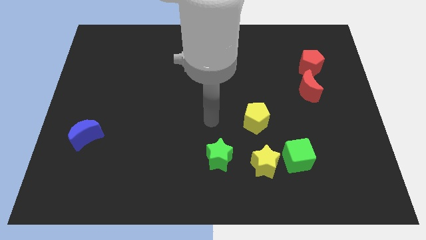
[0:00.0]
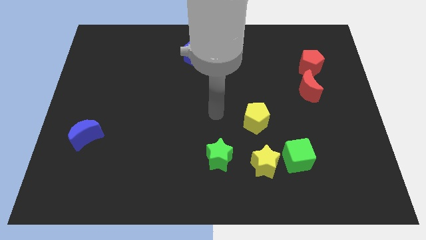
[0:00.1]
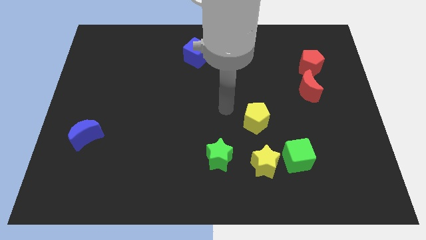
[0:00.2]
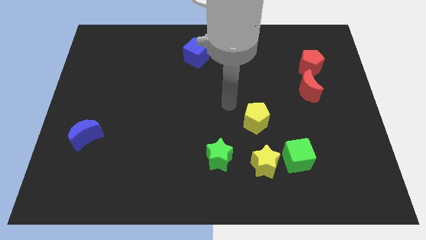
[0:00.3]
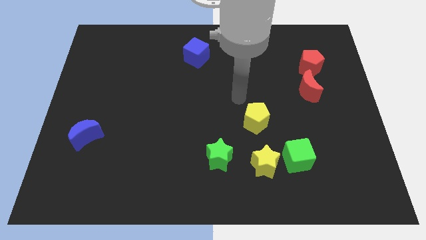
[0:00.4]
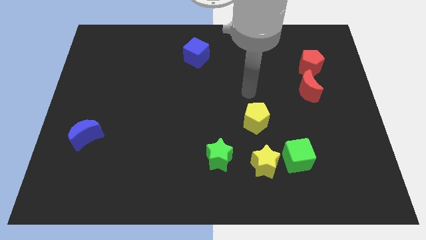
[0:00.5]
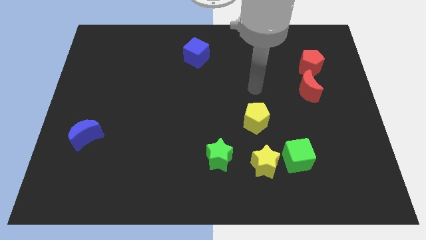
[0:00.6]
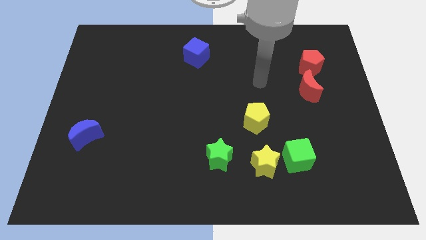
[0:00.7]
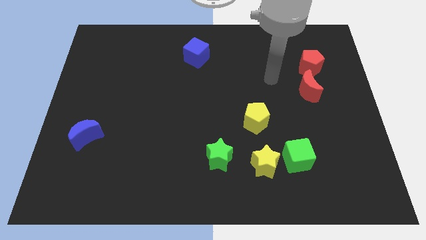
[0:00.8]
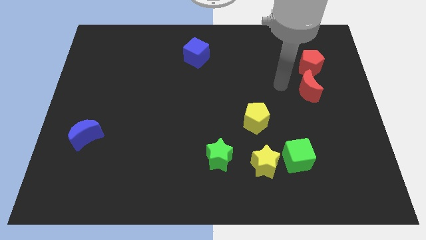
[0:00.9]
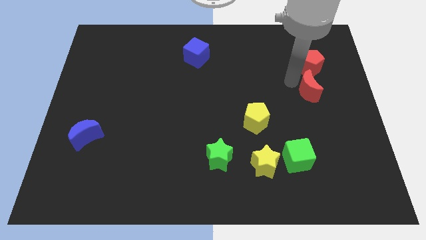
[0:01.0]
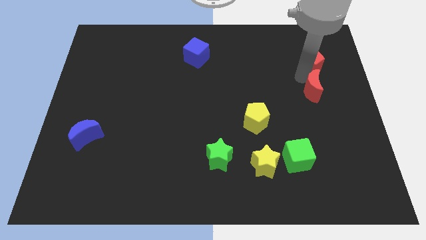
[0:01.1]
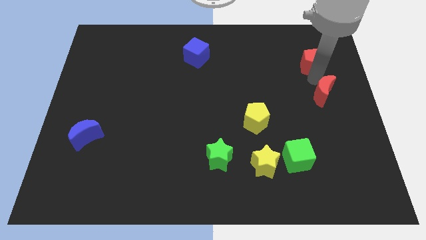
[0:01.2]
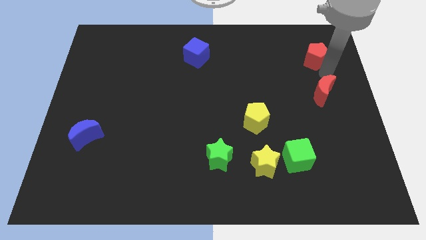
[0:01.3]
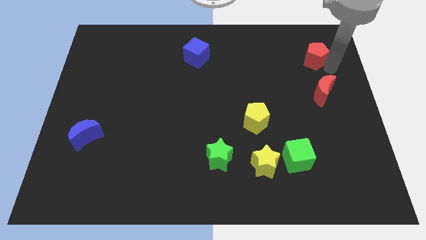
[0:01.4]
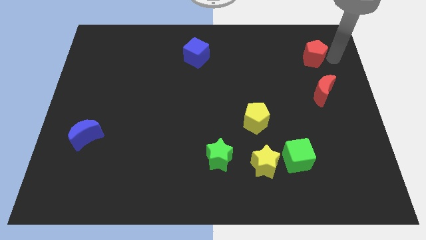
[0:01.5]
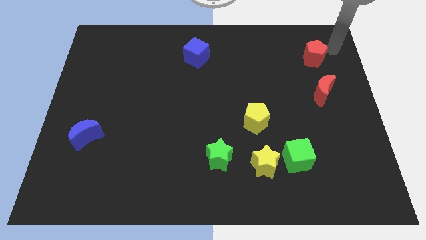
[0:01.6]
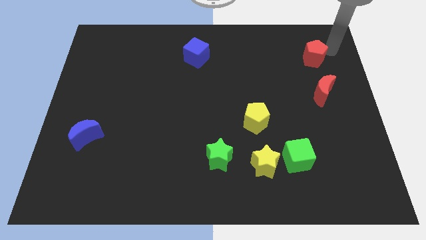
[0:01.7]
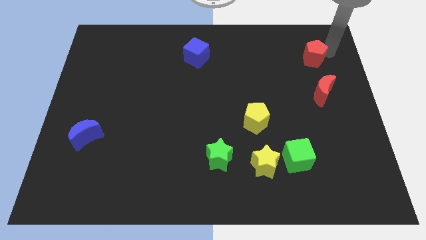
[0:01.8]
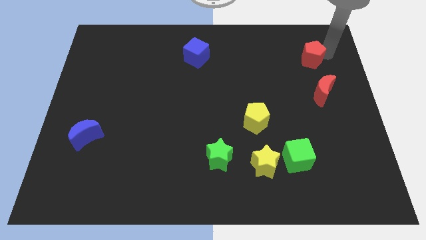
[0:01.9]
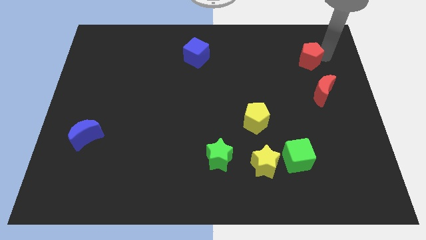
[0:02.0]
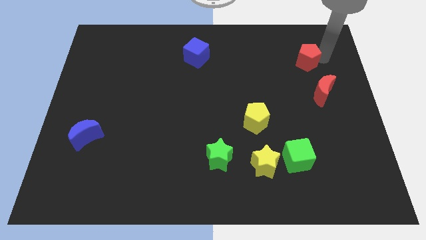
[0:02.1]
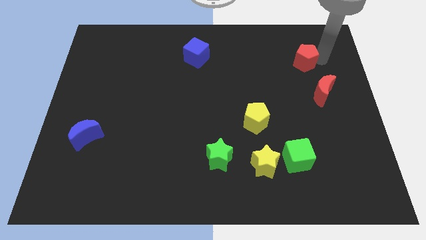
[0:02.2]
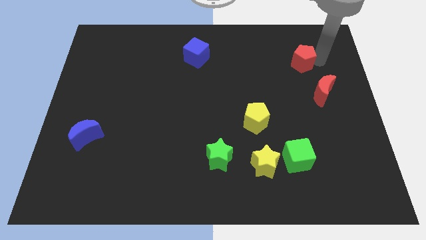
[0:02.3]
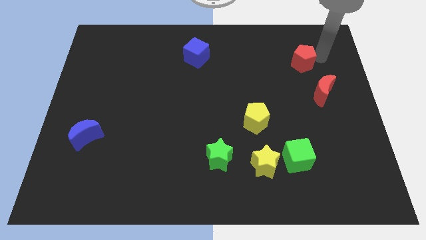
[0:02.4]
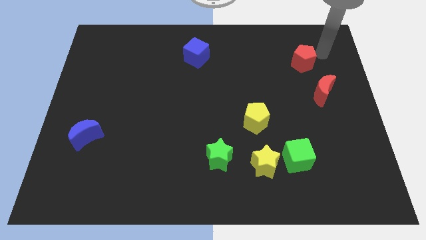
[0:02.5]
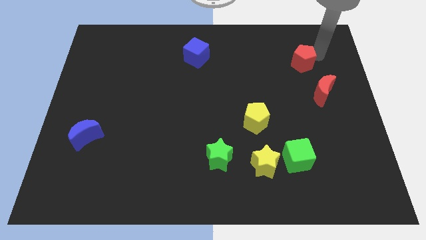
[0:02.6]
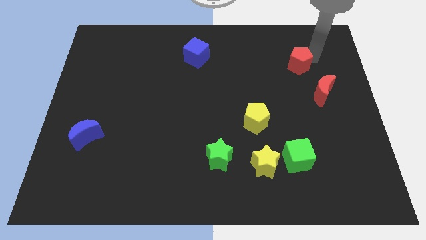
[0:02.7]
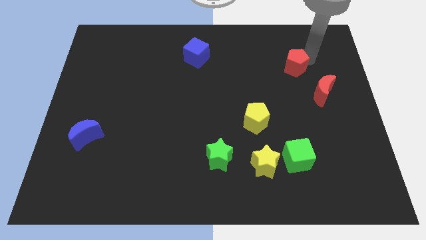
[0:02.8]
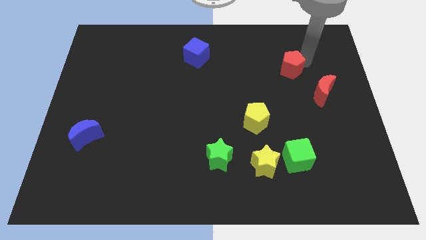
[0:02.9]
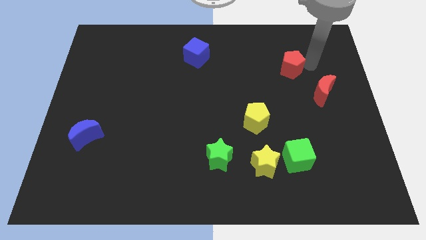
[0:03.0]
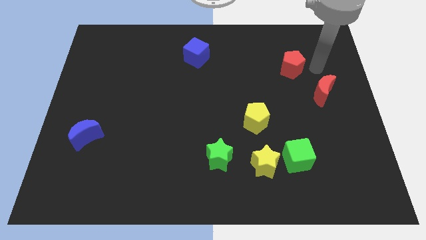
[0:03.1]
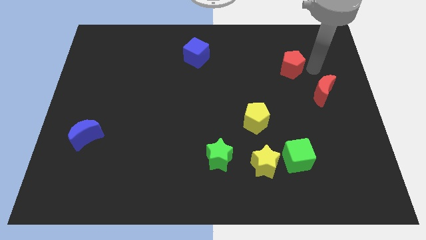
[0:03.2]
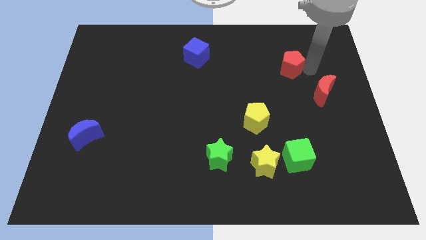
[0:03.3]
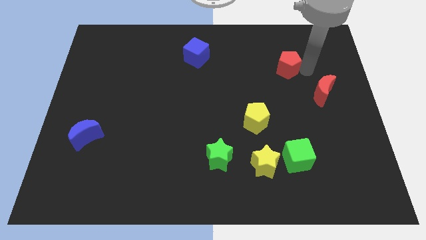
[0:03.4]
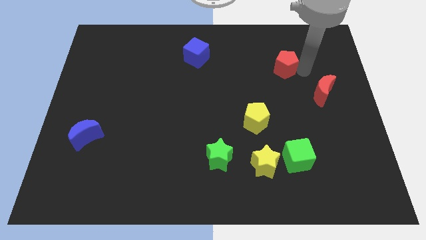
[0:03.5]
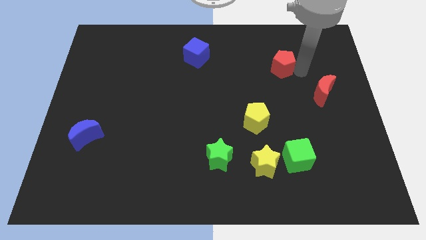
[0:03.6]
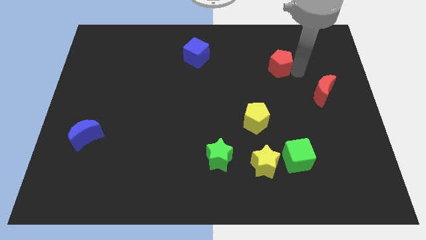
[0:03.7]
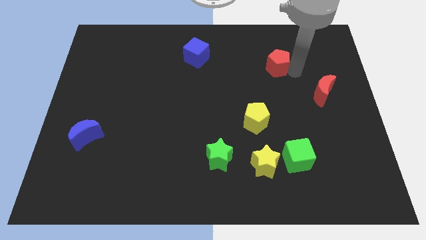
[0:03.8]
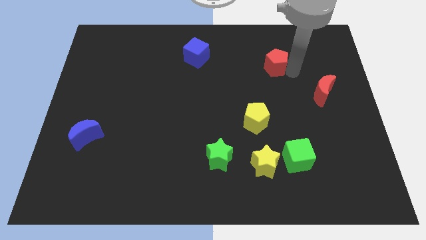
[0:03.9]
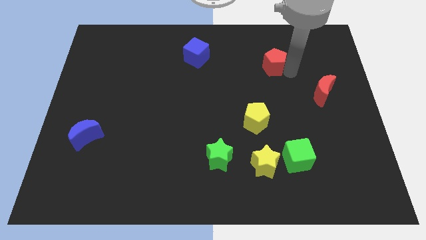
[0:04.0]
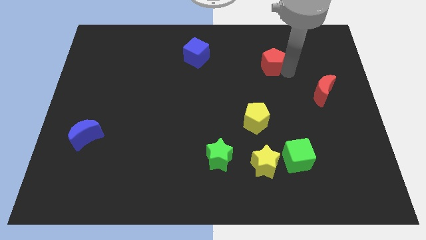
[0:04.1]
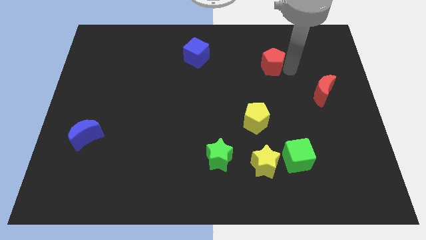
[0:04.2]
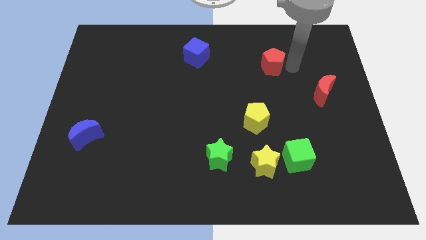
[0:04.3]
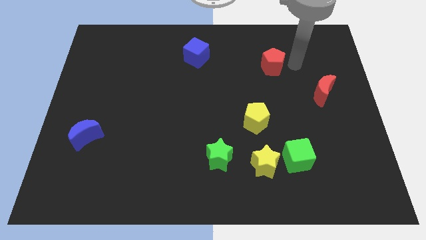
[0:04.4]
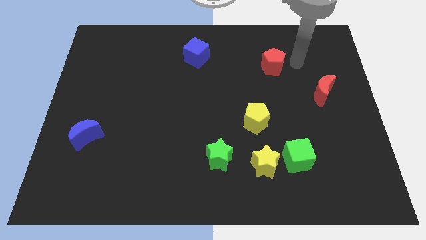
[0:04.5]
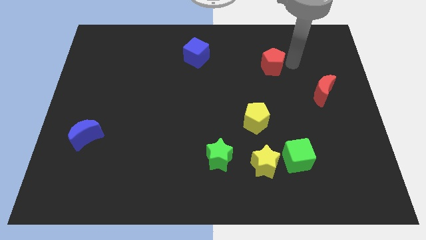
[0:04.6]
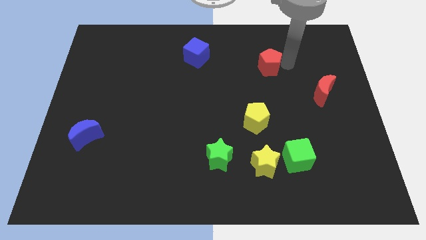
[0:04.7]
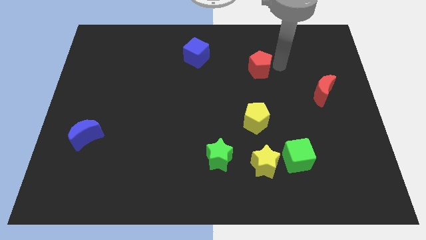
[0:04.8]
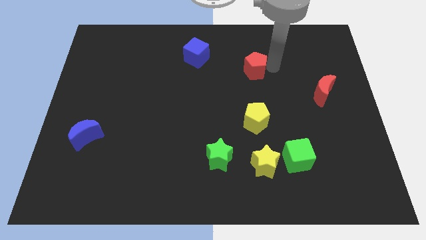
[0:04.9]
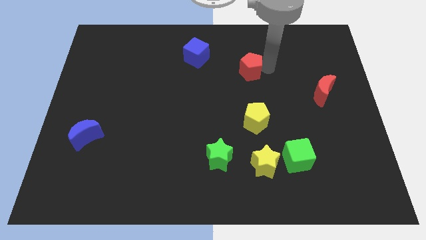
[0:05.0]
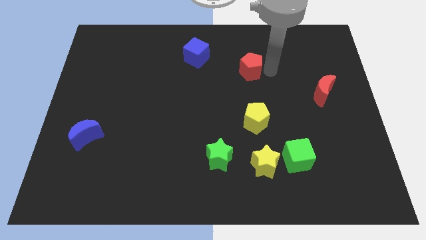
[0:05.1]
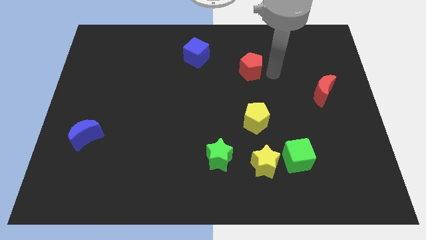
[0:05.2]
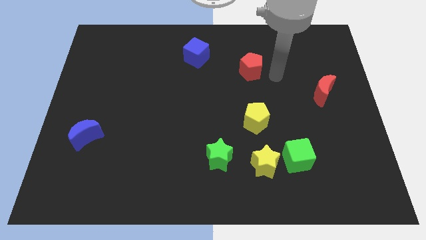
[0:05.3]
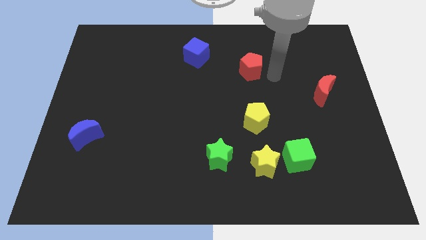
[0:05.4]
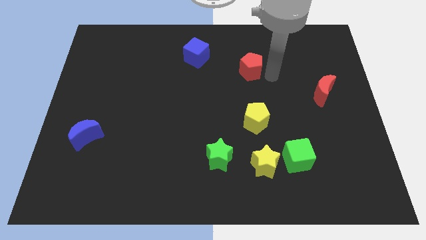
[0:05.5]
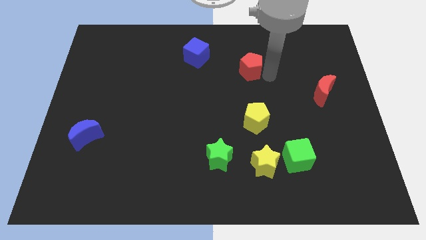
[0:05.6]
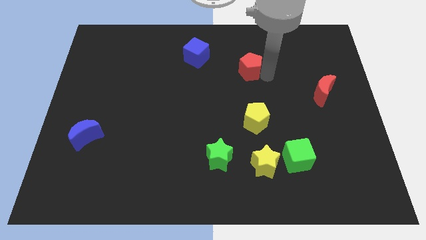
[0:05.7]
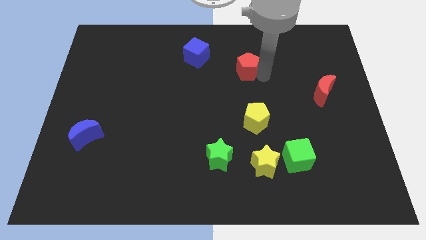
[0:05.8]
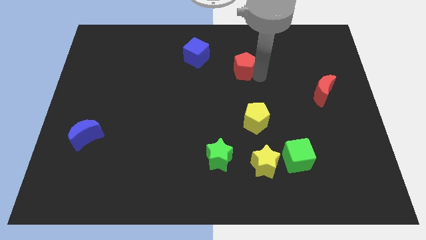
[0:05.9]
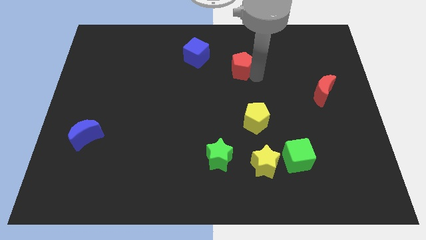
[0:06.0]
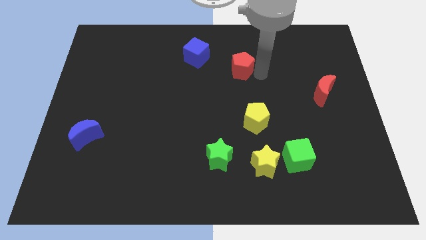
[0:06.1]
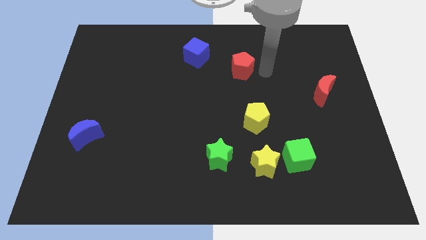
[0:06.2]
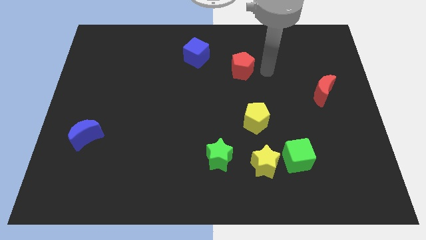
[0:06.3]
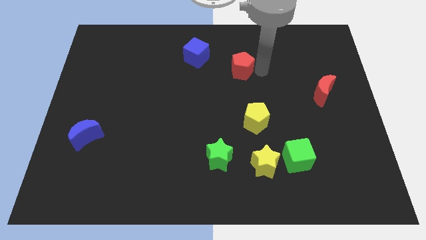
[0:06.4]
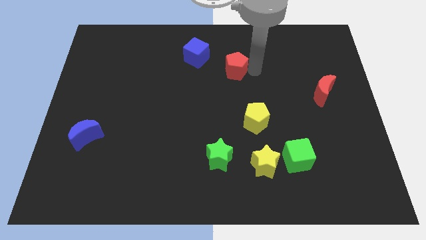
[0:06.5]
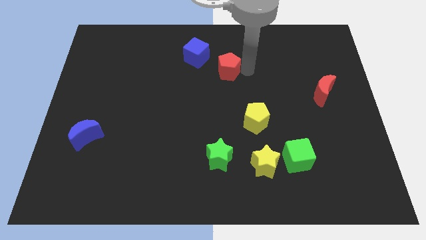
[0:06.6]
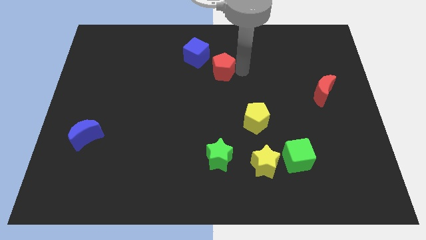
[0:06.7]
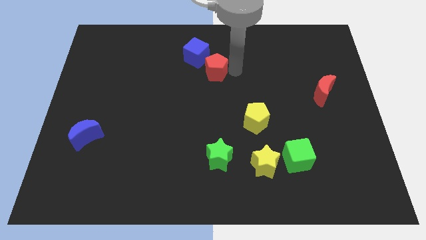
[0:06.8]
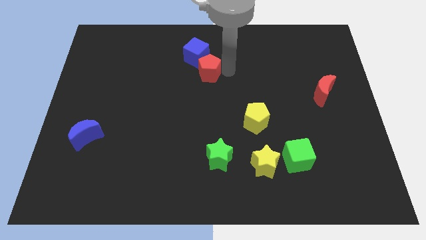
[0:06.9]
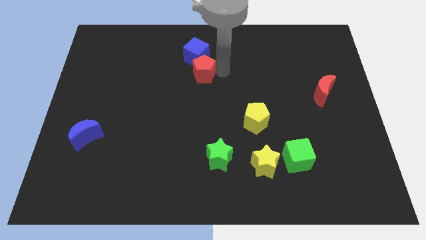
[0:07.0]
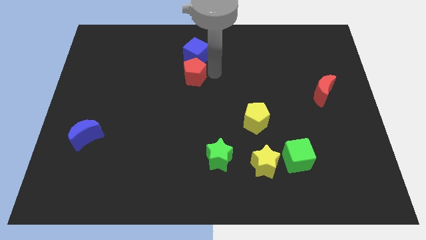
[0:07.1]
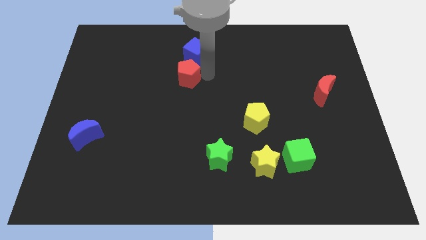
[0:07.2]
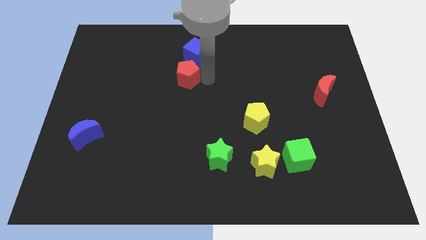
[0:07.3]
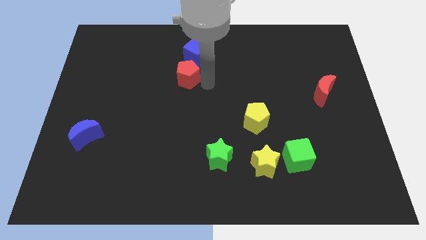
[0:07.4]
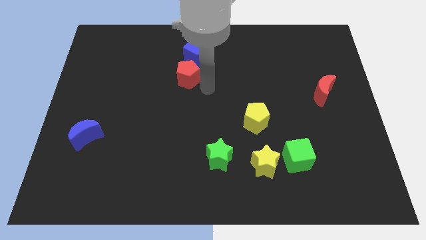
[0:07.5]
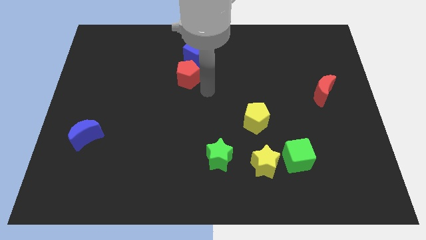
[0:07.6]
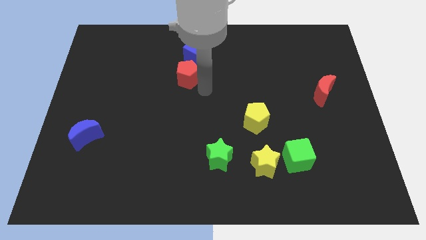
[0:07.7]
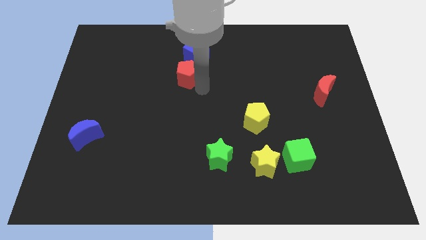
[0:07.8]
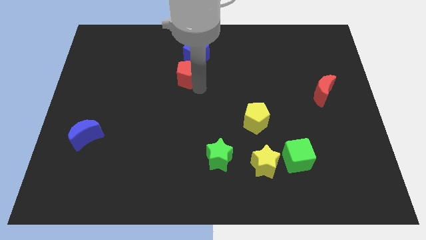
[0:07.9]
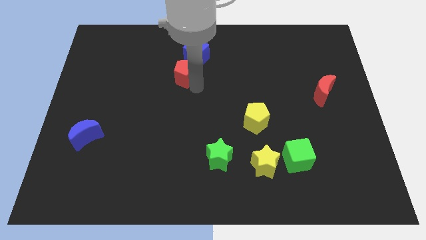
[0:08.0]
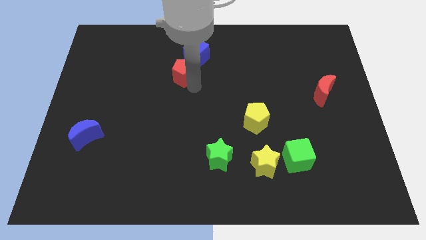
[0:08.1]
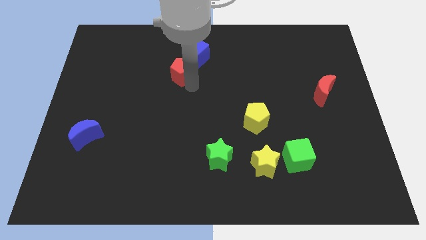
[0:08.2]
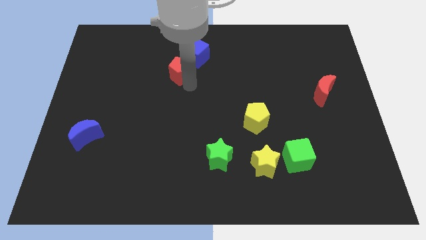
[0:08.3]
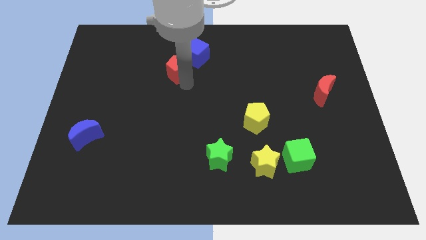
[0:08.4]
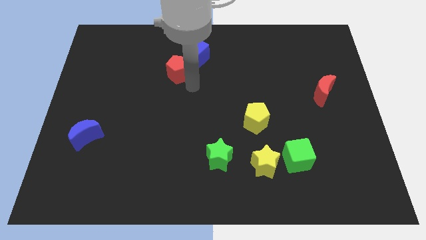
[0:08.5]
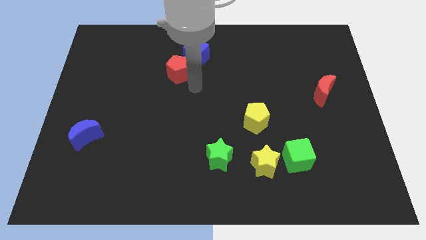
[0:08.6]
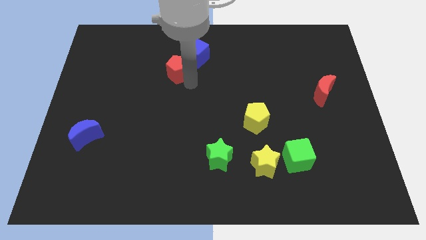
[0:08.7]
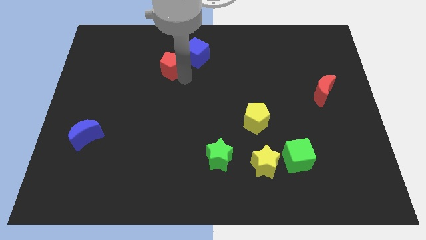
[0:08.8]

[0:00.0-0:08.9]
move the red pentagon to the left side of the blue cube
